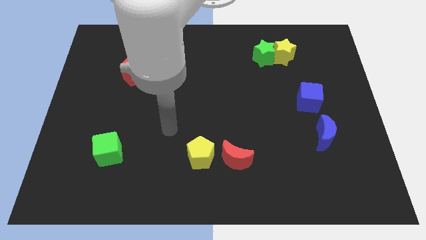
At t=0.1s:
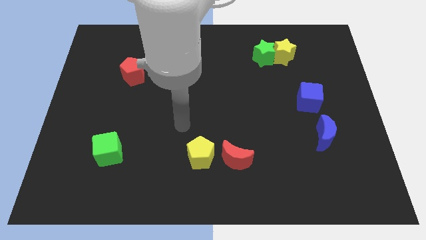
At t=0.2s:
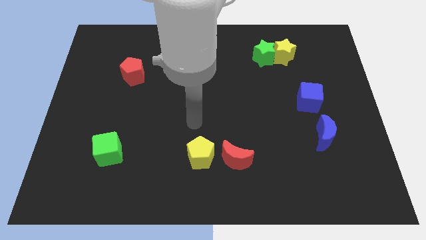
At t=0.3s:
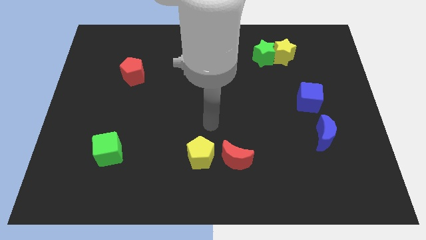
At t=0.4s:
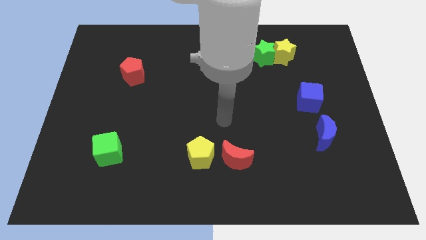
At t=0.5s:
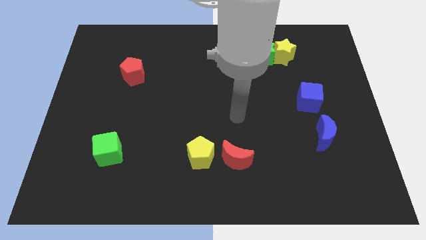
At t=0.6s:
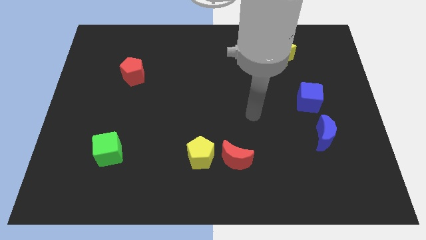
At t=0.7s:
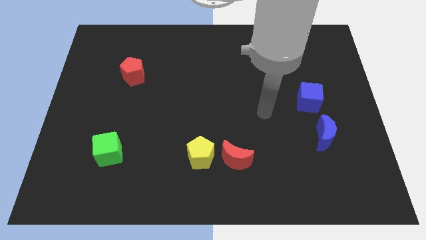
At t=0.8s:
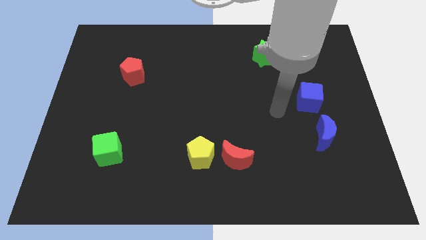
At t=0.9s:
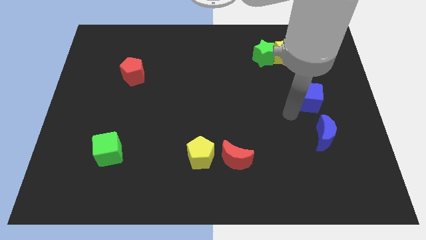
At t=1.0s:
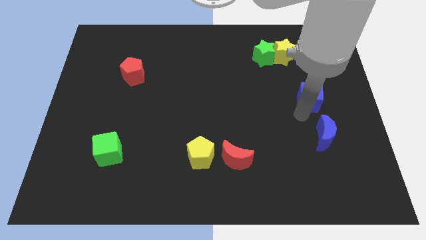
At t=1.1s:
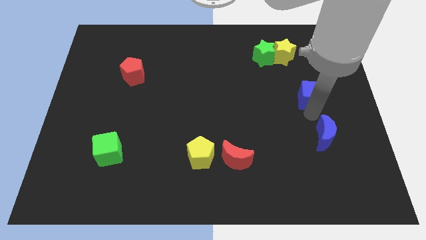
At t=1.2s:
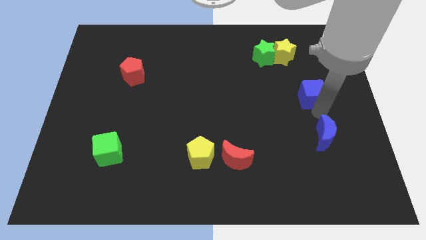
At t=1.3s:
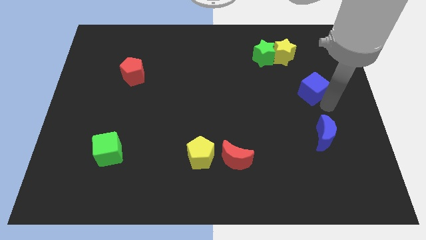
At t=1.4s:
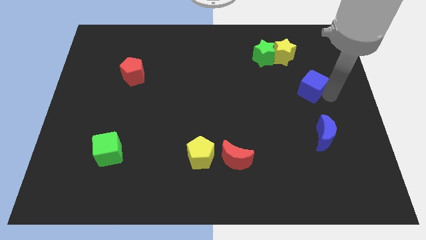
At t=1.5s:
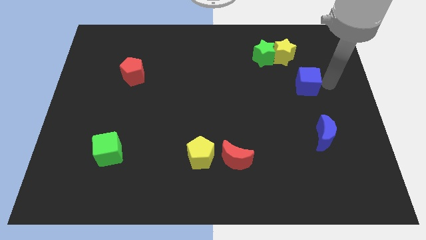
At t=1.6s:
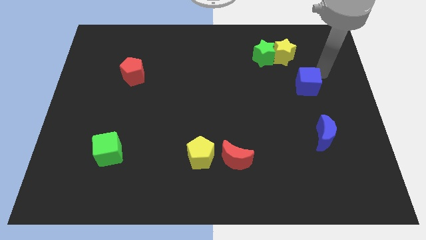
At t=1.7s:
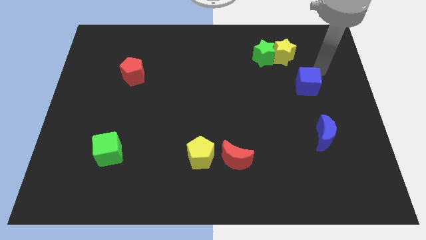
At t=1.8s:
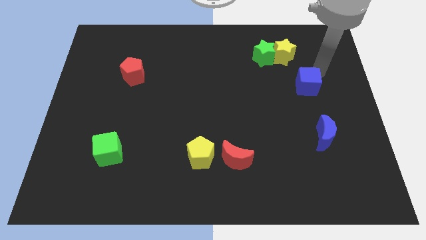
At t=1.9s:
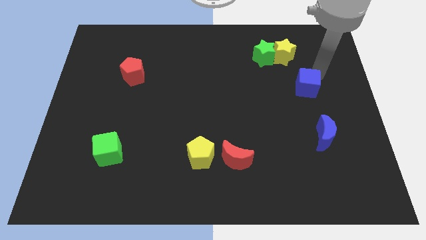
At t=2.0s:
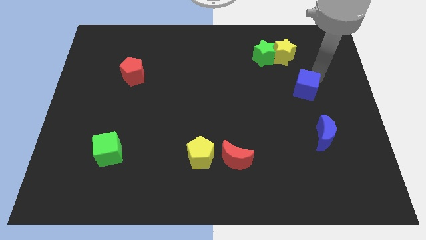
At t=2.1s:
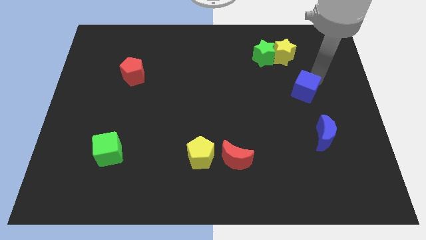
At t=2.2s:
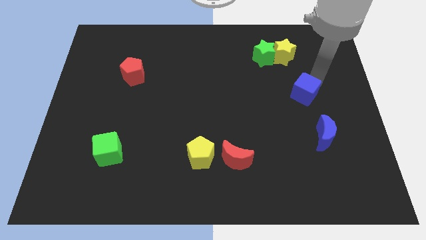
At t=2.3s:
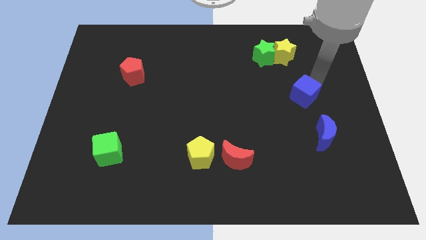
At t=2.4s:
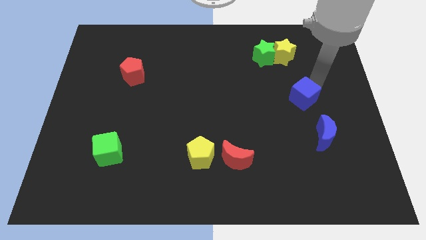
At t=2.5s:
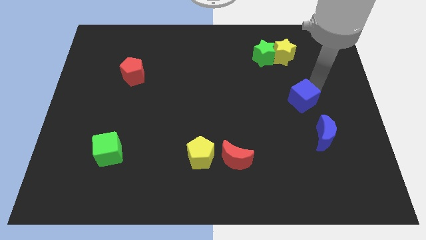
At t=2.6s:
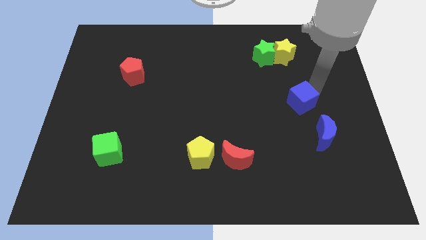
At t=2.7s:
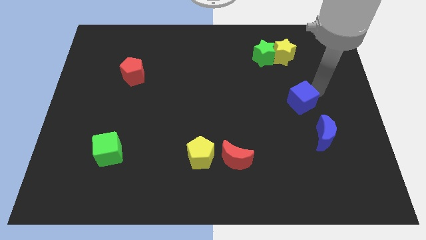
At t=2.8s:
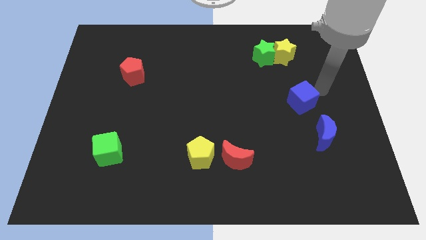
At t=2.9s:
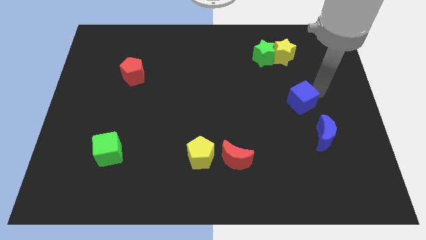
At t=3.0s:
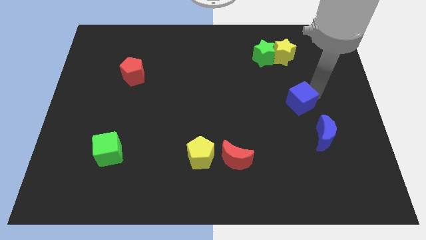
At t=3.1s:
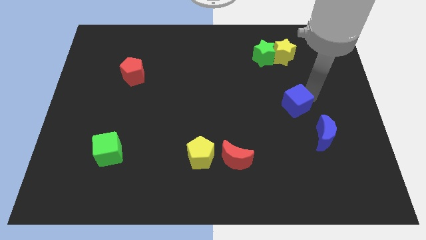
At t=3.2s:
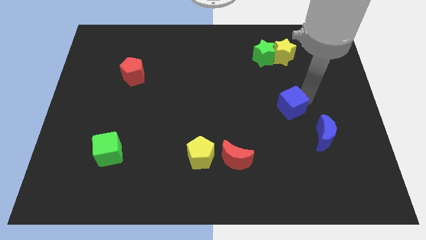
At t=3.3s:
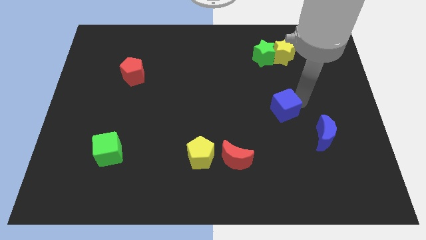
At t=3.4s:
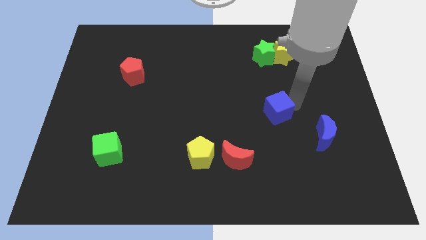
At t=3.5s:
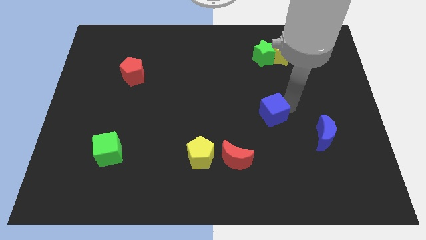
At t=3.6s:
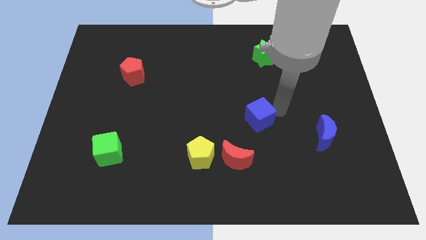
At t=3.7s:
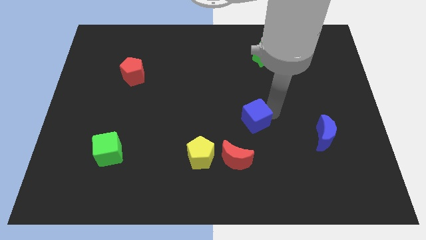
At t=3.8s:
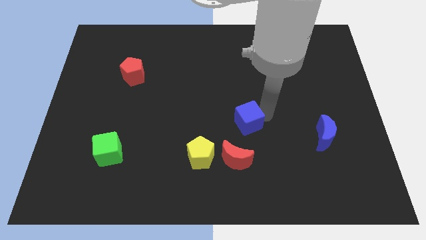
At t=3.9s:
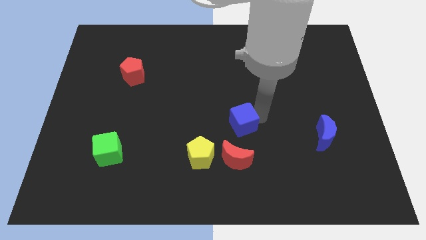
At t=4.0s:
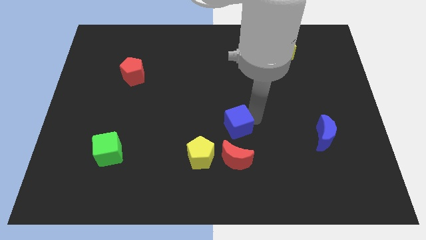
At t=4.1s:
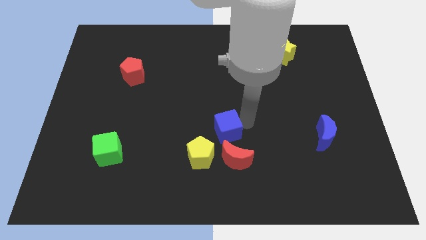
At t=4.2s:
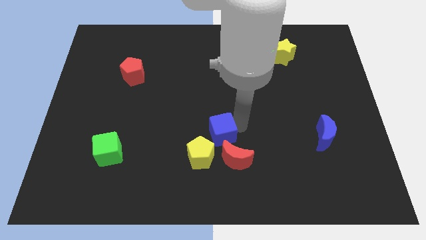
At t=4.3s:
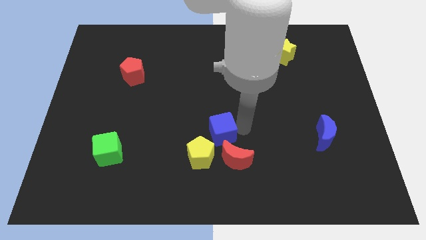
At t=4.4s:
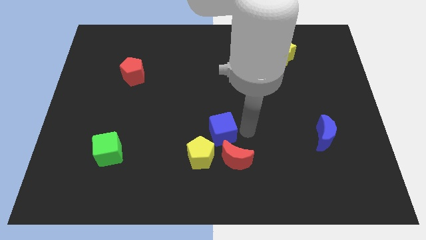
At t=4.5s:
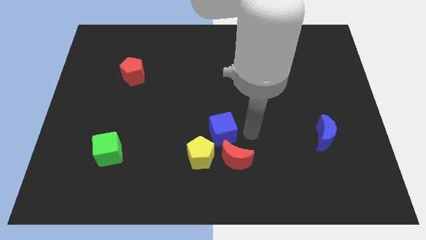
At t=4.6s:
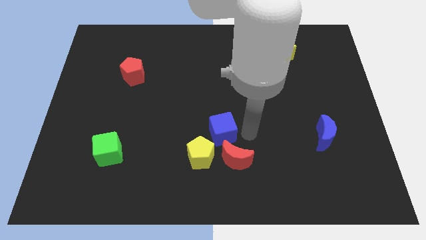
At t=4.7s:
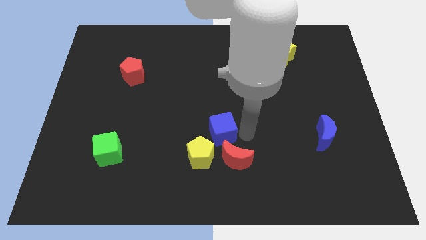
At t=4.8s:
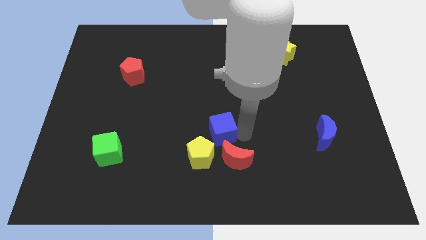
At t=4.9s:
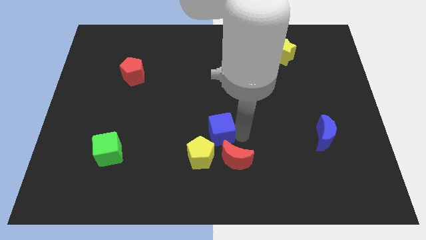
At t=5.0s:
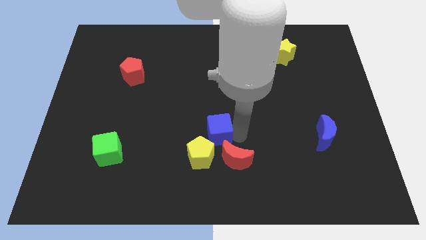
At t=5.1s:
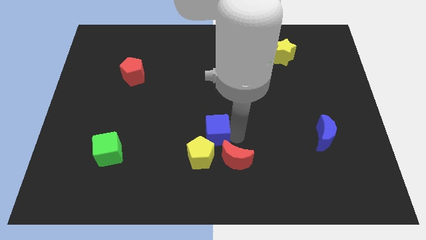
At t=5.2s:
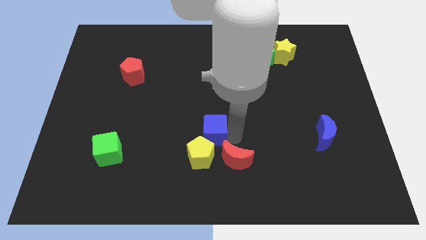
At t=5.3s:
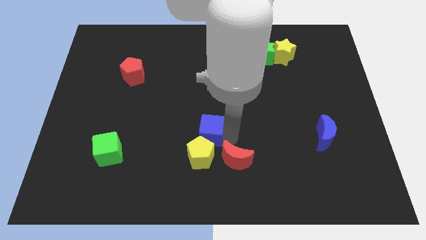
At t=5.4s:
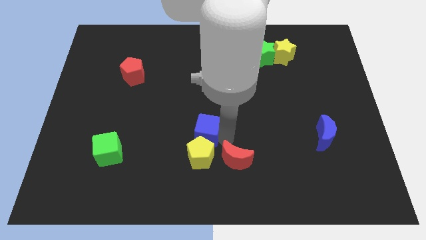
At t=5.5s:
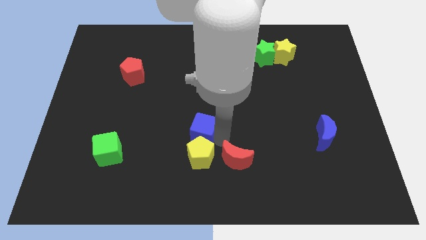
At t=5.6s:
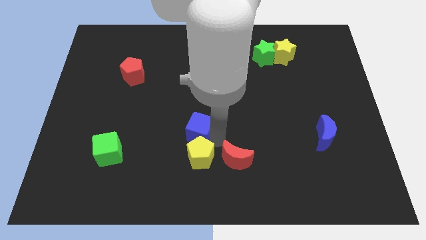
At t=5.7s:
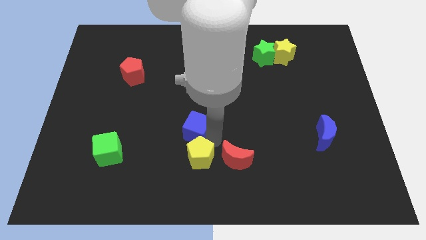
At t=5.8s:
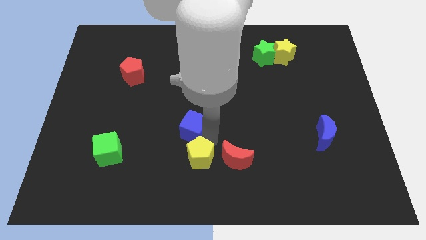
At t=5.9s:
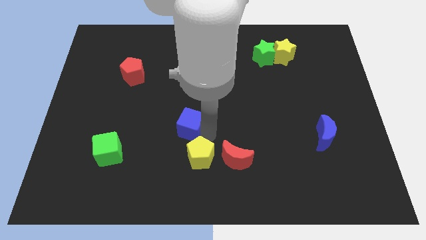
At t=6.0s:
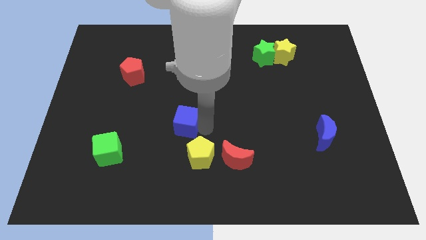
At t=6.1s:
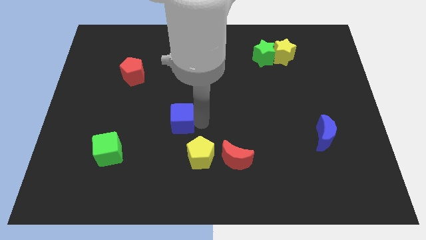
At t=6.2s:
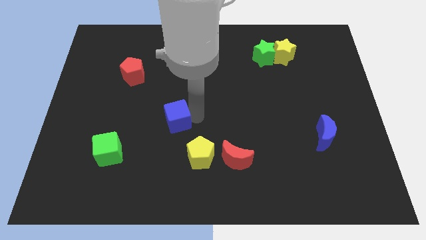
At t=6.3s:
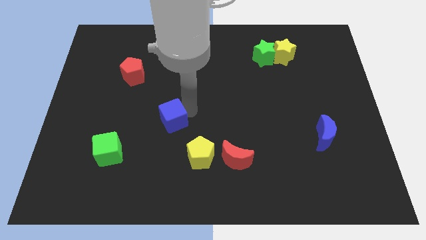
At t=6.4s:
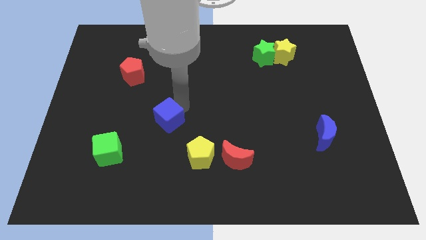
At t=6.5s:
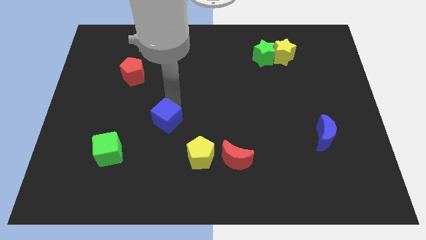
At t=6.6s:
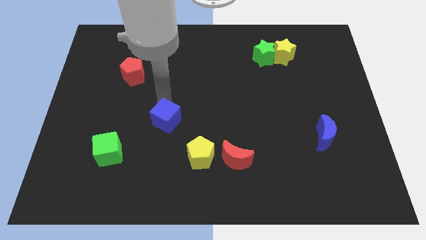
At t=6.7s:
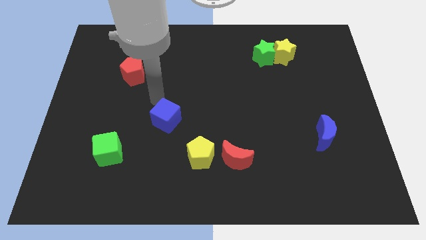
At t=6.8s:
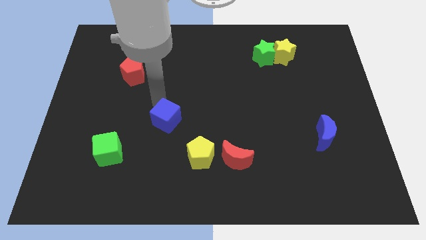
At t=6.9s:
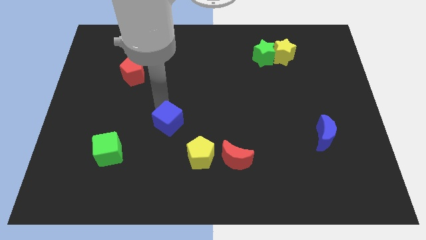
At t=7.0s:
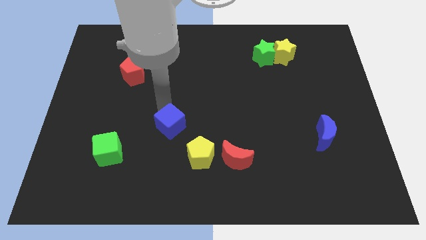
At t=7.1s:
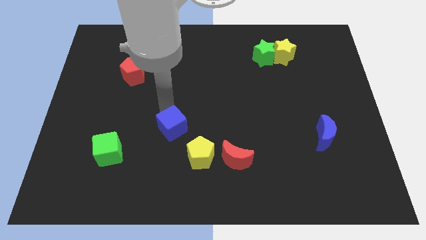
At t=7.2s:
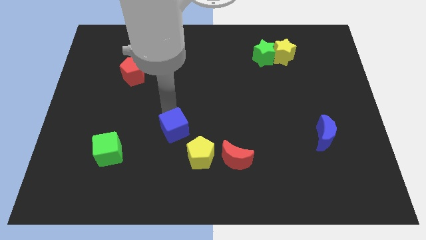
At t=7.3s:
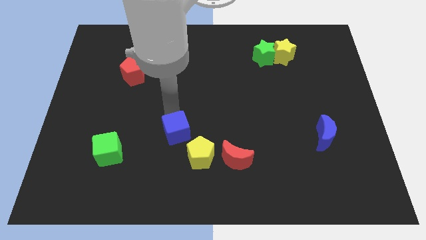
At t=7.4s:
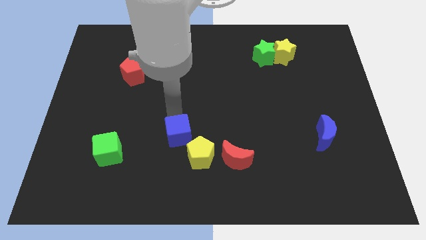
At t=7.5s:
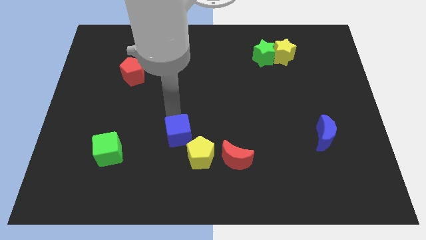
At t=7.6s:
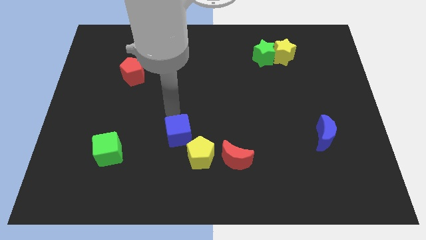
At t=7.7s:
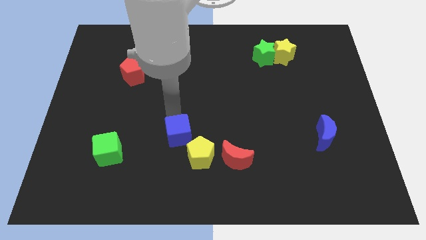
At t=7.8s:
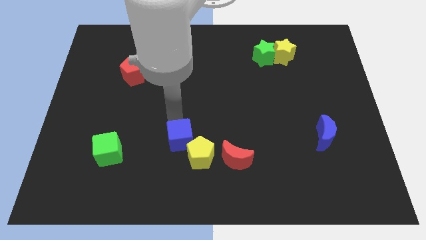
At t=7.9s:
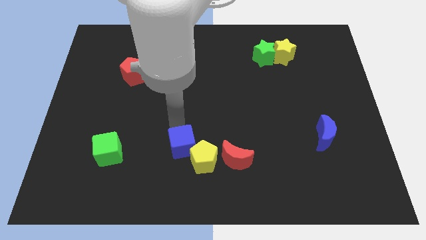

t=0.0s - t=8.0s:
move the blue cube just left of the red moon
